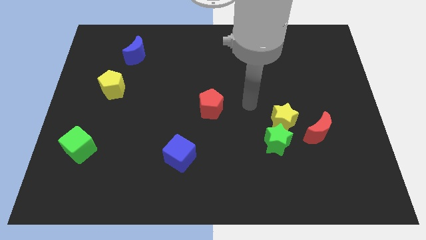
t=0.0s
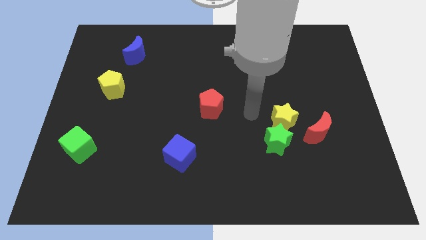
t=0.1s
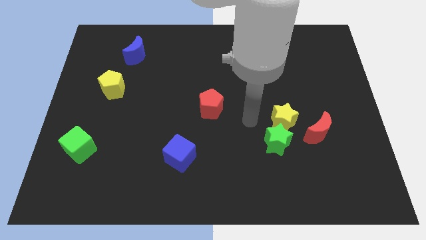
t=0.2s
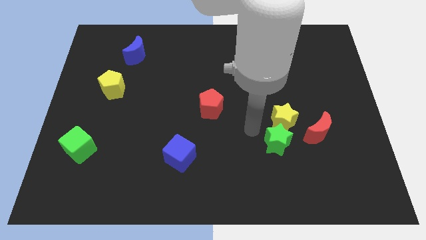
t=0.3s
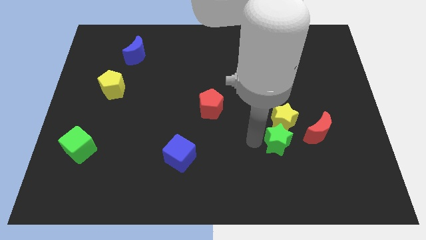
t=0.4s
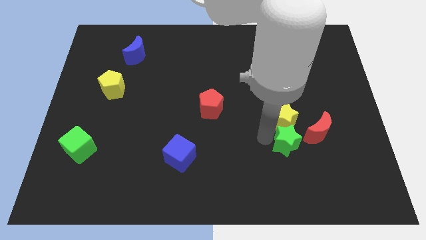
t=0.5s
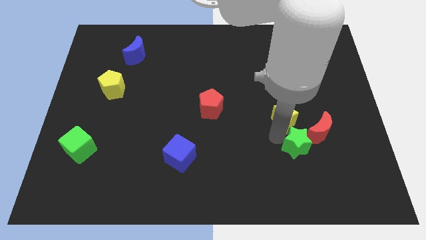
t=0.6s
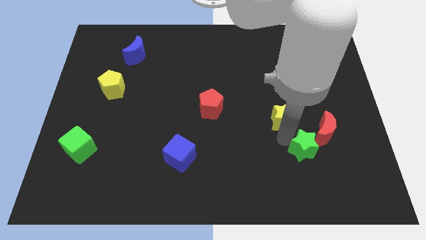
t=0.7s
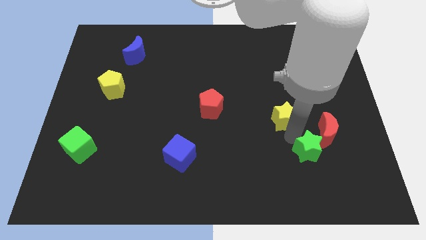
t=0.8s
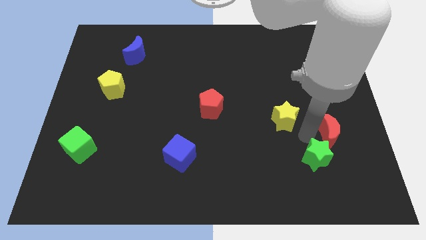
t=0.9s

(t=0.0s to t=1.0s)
move the yellow star away from the green star and red moon

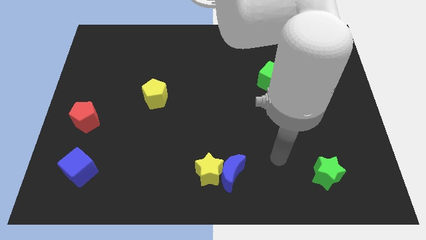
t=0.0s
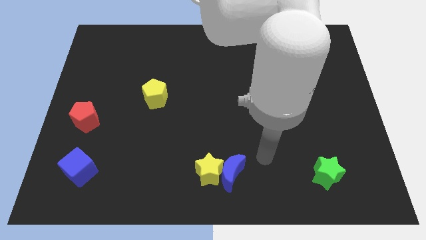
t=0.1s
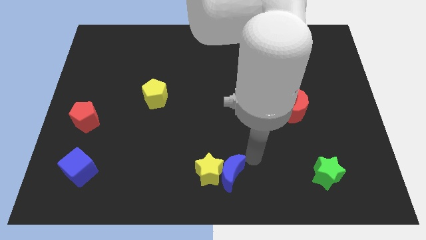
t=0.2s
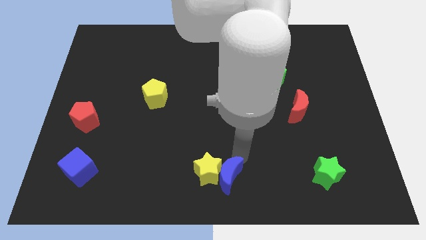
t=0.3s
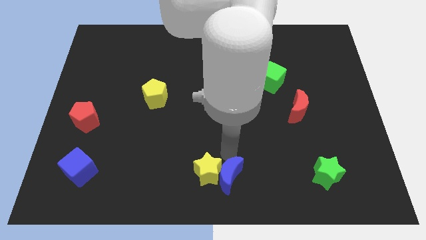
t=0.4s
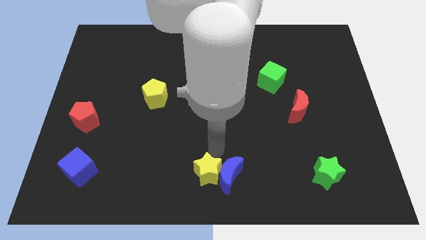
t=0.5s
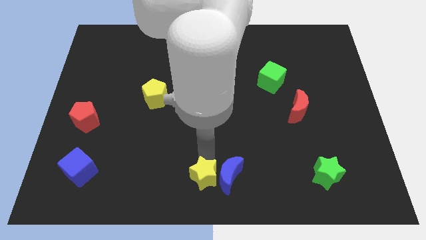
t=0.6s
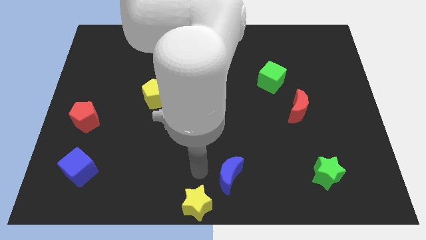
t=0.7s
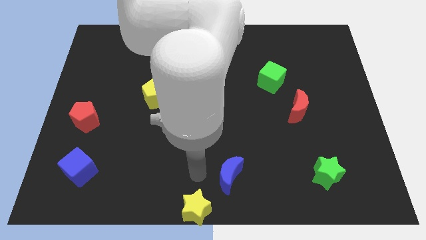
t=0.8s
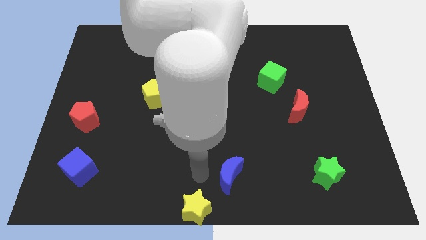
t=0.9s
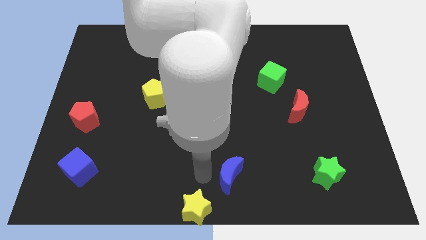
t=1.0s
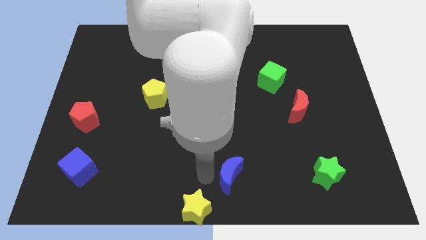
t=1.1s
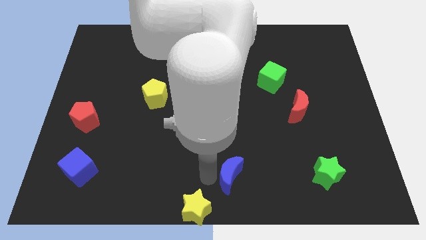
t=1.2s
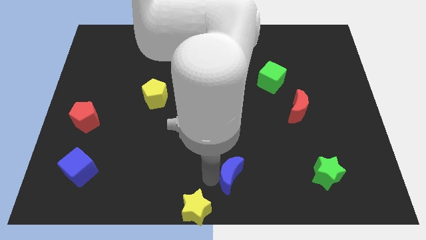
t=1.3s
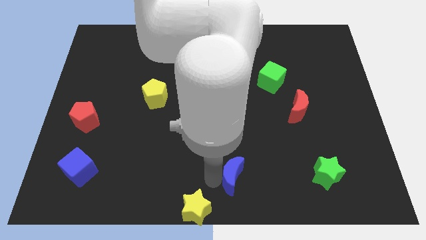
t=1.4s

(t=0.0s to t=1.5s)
move the blue moon away from the yellow star

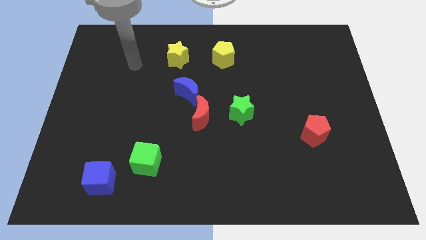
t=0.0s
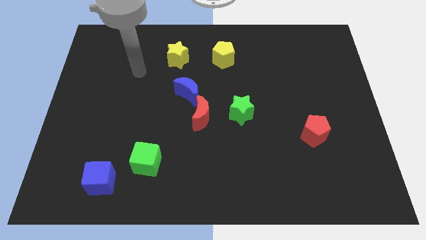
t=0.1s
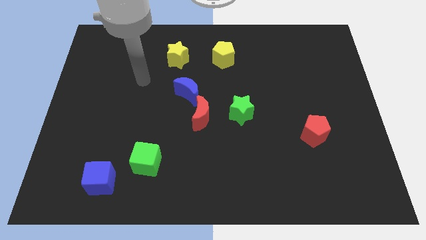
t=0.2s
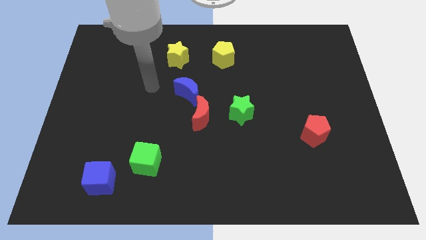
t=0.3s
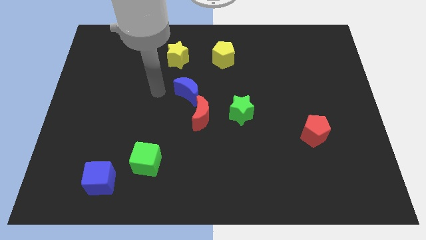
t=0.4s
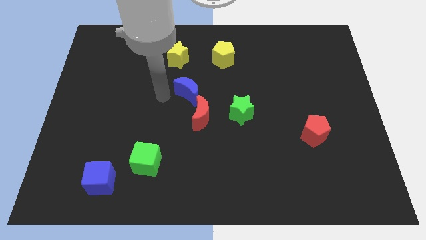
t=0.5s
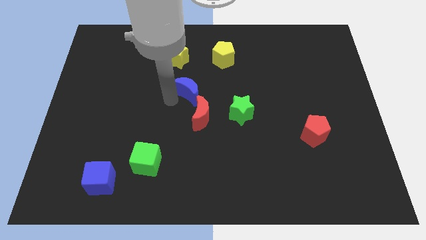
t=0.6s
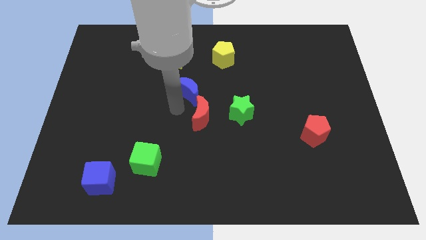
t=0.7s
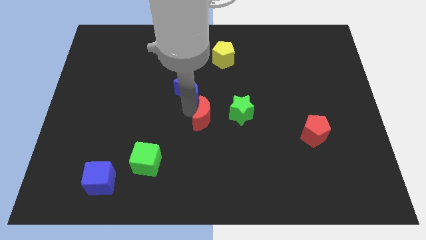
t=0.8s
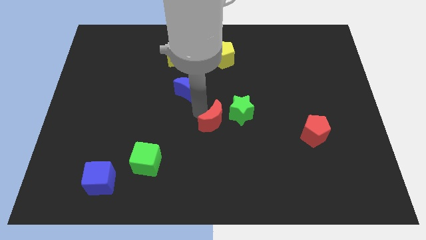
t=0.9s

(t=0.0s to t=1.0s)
move the blue moon away from the red moon

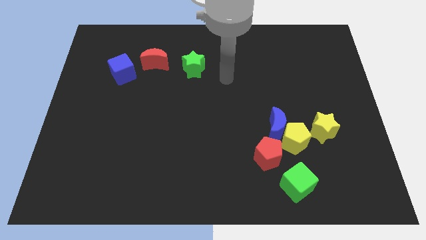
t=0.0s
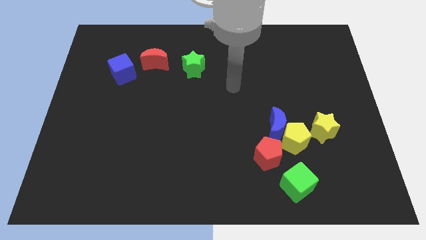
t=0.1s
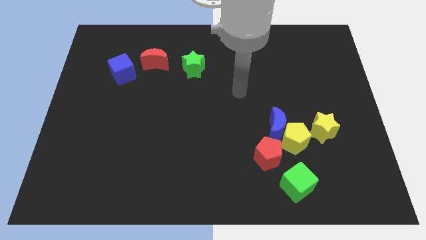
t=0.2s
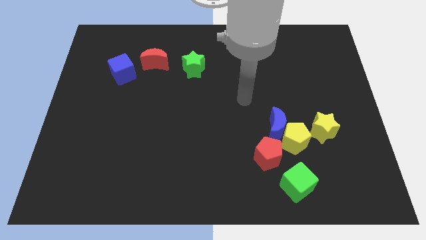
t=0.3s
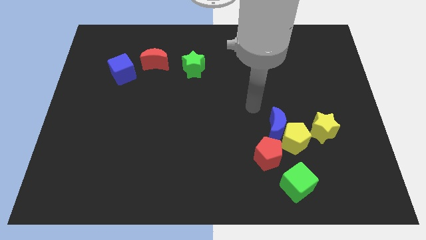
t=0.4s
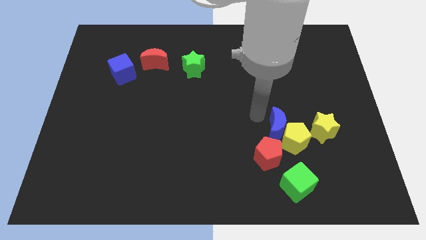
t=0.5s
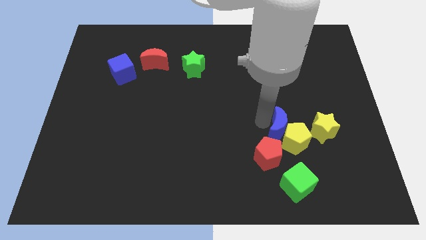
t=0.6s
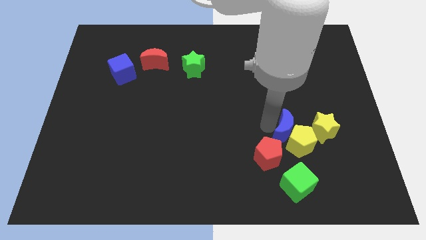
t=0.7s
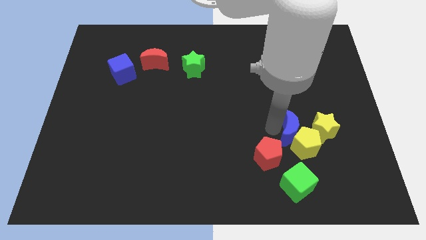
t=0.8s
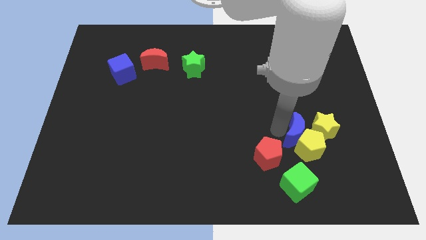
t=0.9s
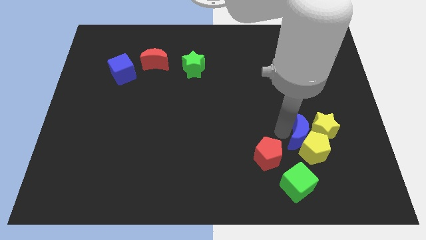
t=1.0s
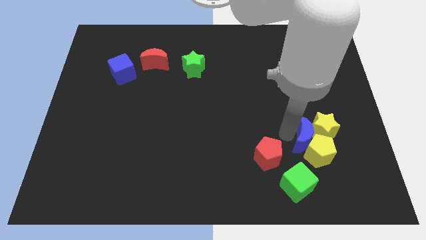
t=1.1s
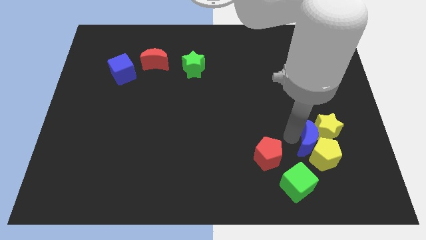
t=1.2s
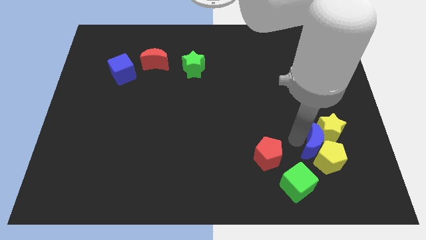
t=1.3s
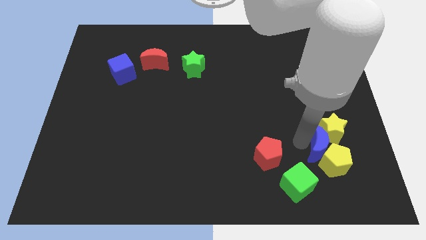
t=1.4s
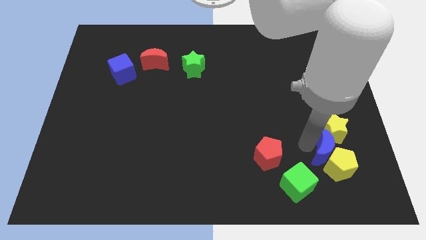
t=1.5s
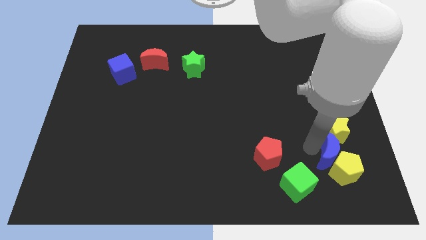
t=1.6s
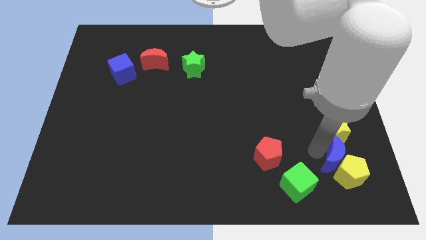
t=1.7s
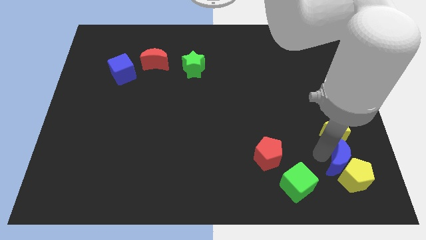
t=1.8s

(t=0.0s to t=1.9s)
move the yellow pentagon away from the blue moon, yellow star, and red pentagon

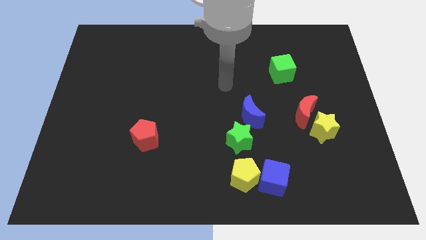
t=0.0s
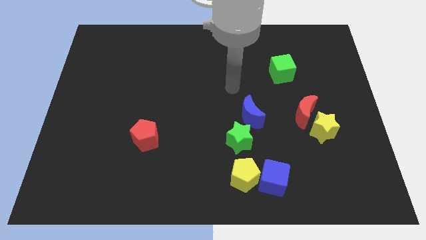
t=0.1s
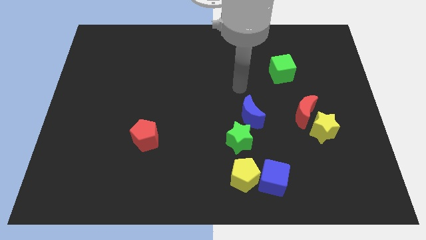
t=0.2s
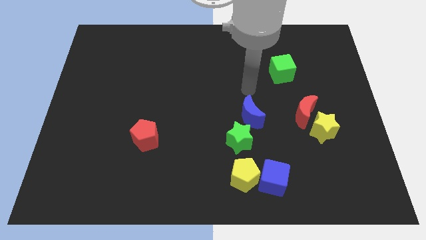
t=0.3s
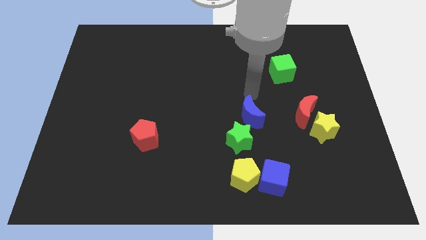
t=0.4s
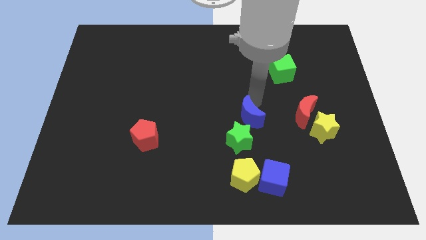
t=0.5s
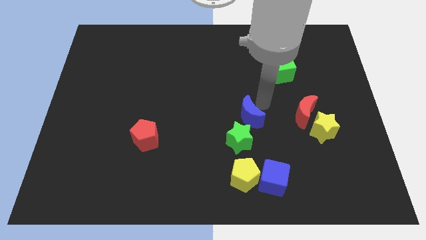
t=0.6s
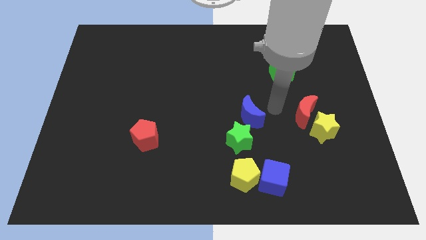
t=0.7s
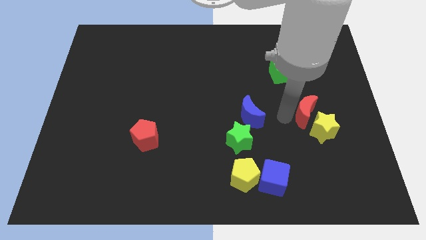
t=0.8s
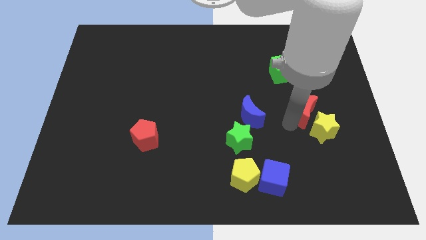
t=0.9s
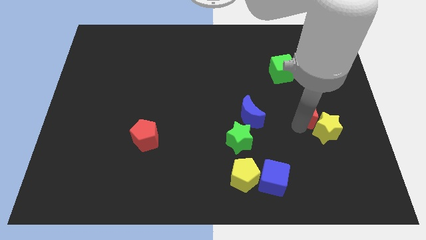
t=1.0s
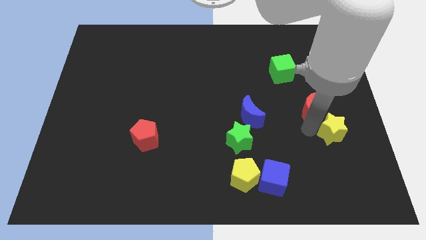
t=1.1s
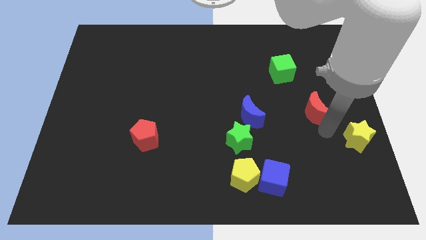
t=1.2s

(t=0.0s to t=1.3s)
separate the red moon from the yellow star

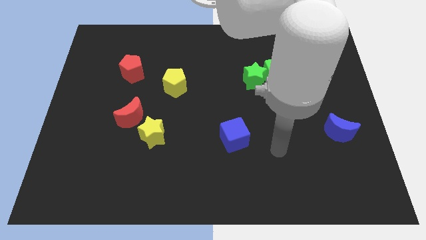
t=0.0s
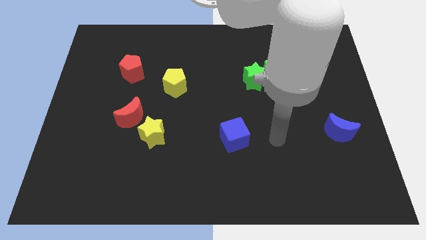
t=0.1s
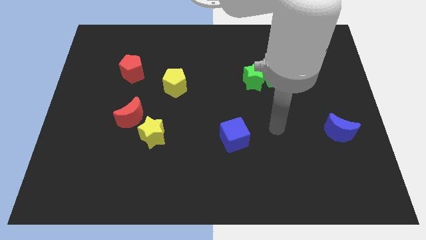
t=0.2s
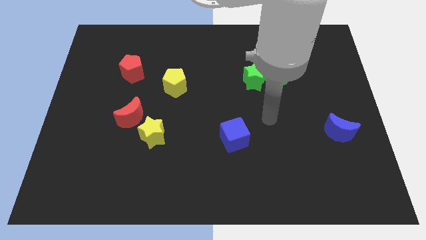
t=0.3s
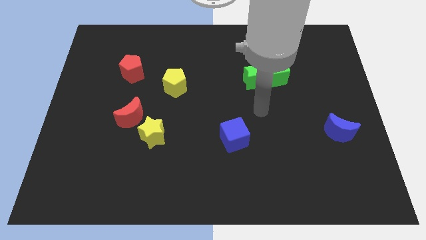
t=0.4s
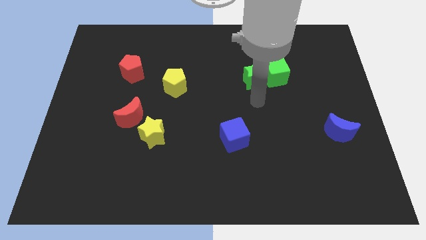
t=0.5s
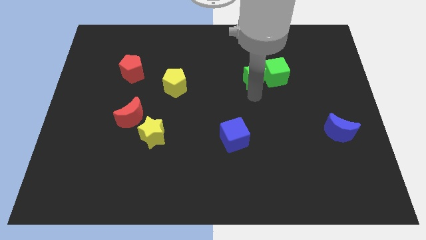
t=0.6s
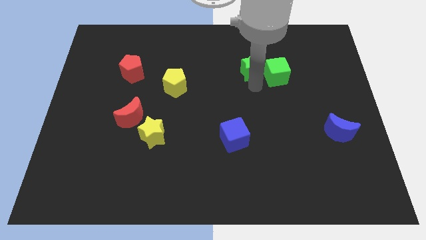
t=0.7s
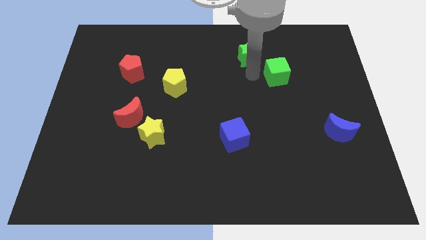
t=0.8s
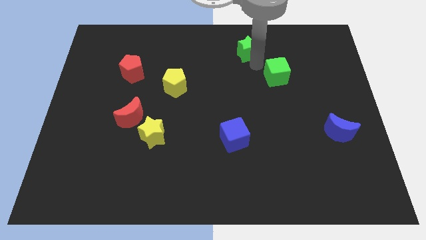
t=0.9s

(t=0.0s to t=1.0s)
separate the green cube from the green star

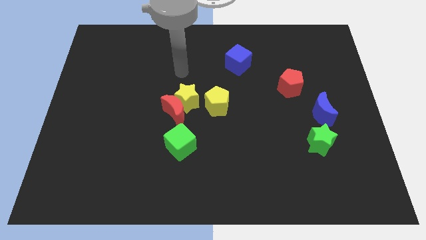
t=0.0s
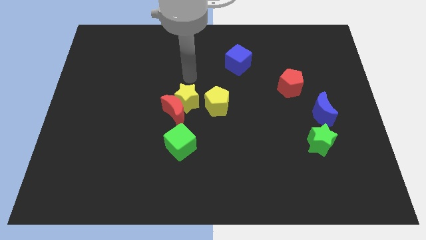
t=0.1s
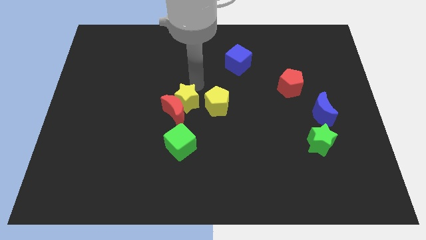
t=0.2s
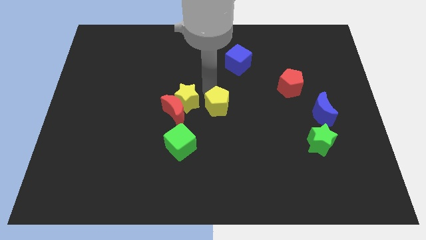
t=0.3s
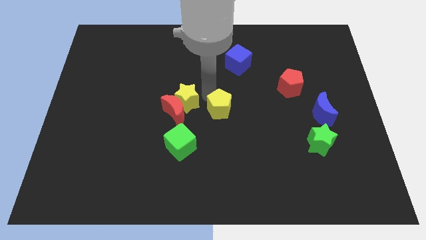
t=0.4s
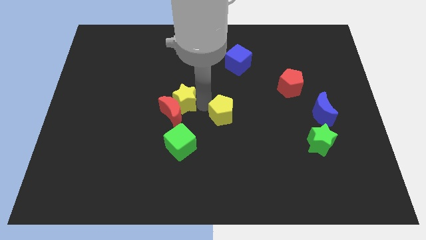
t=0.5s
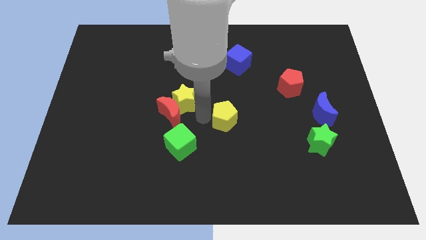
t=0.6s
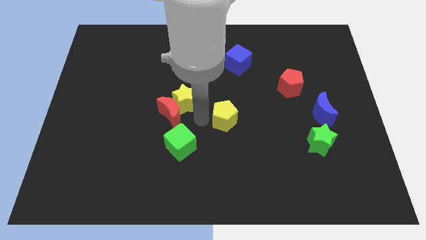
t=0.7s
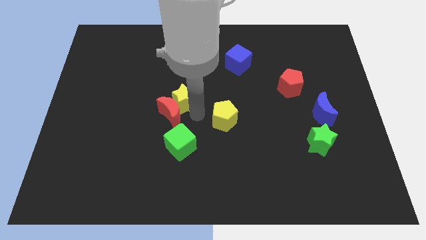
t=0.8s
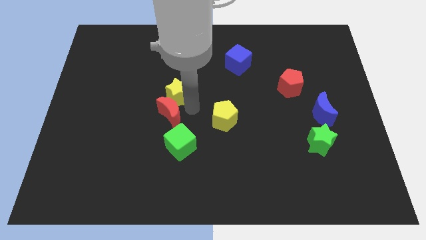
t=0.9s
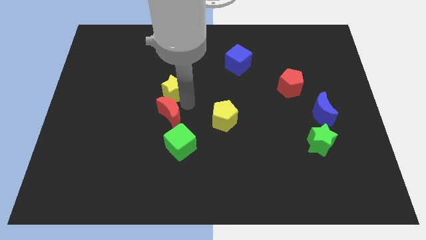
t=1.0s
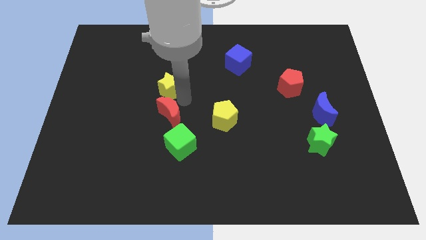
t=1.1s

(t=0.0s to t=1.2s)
pull the yellow star apart from the red moon and yellow pentagon

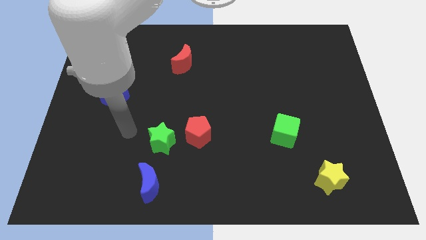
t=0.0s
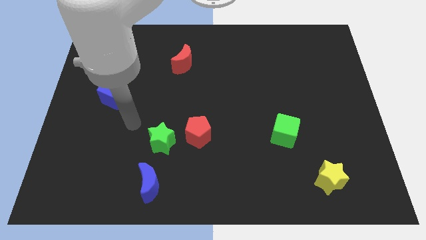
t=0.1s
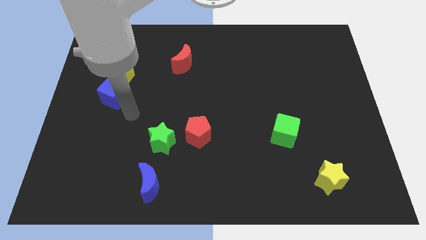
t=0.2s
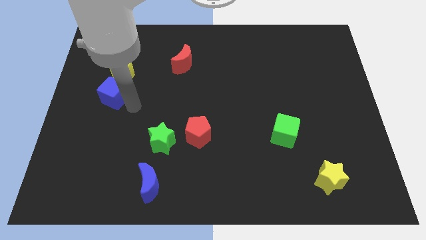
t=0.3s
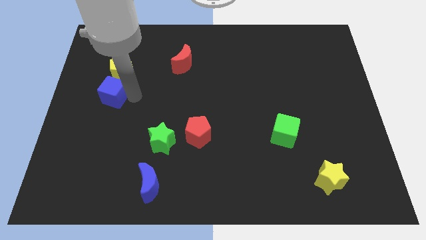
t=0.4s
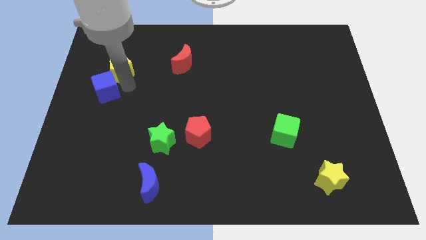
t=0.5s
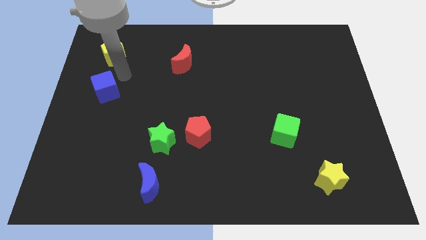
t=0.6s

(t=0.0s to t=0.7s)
move the blue cube away from the yellow pentagon
